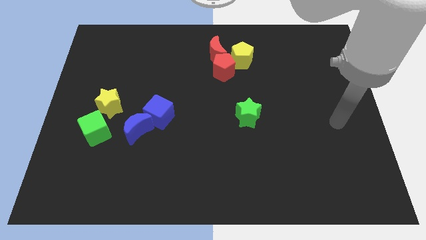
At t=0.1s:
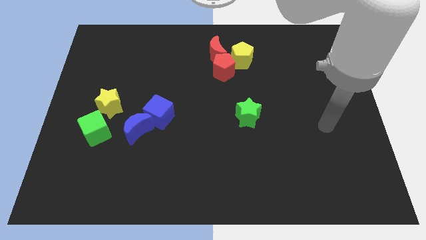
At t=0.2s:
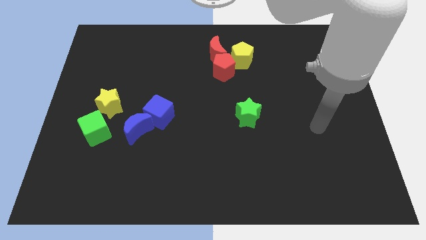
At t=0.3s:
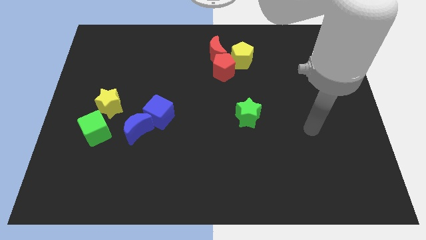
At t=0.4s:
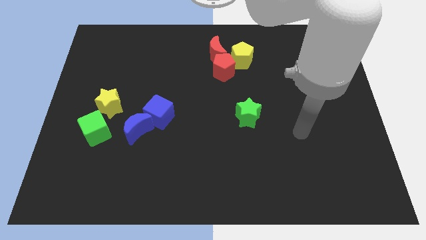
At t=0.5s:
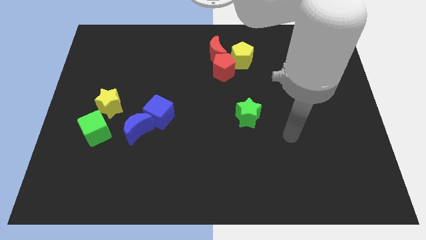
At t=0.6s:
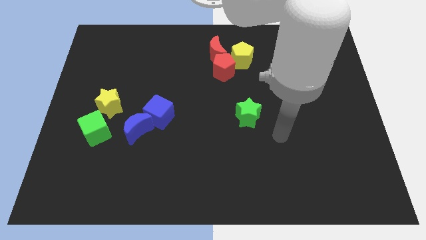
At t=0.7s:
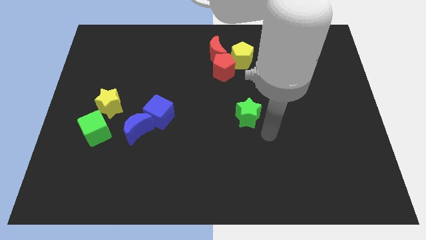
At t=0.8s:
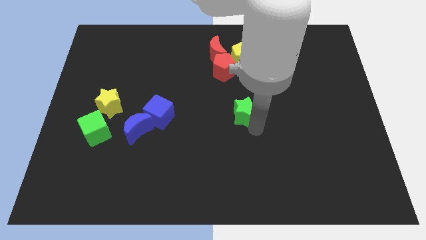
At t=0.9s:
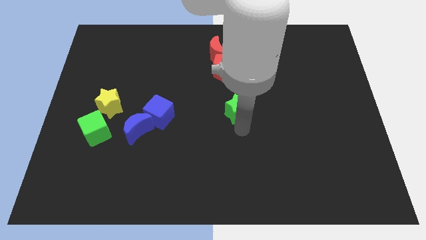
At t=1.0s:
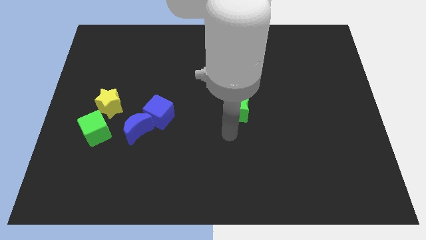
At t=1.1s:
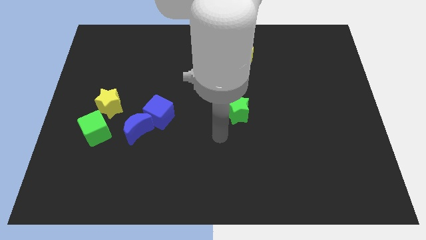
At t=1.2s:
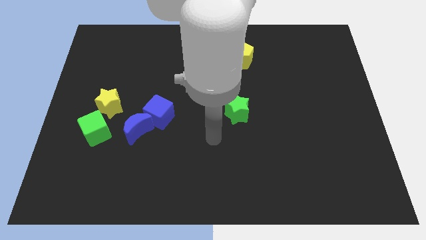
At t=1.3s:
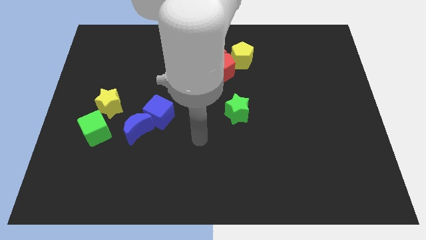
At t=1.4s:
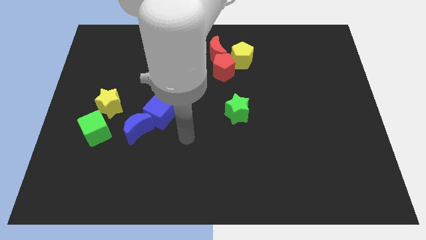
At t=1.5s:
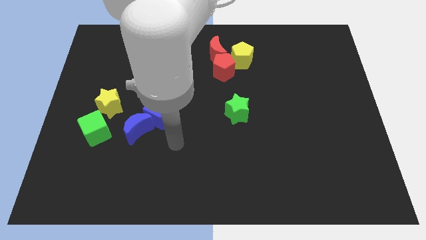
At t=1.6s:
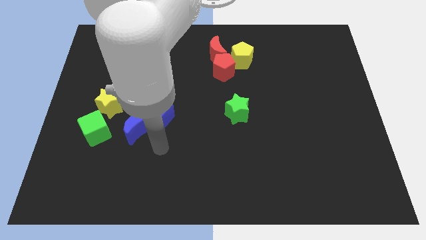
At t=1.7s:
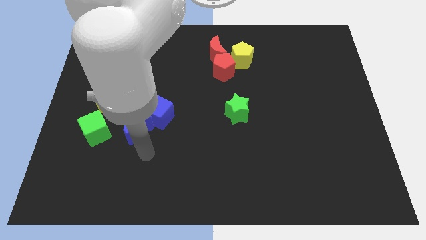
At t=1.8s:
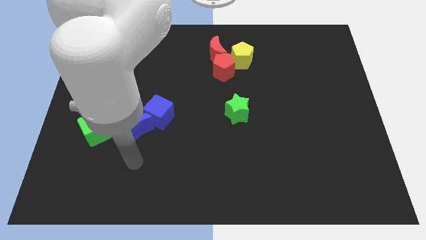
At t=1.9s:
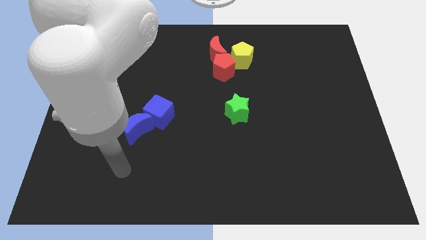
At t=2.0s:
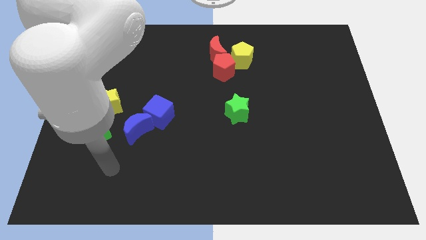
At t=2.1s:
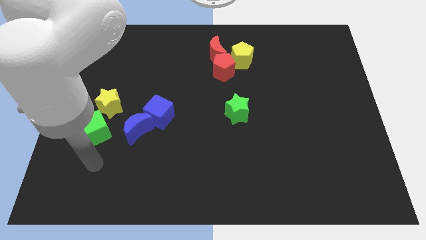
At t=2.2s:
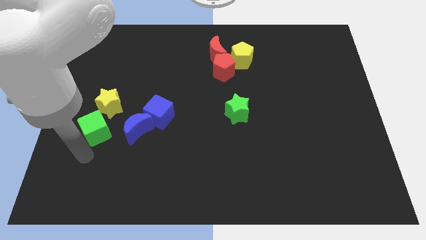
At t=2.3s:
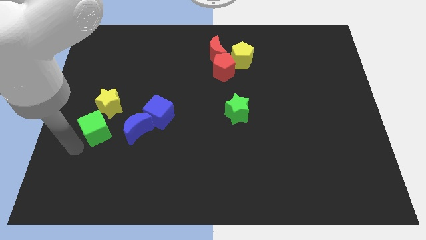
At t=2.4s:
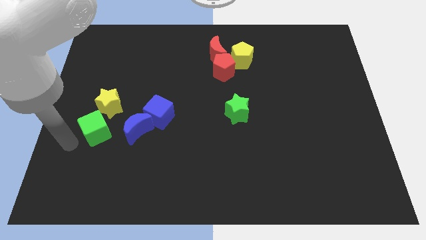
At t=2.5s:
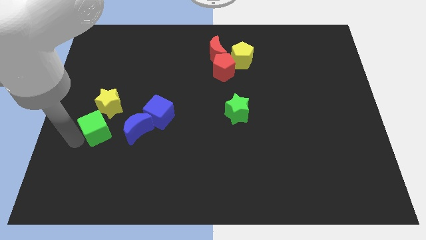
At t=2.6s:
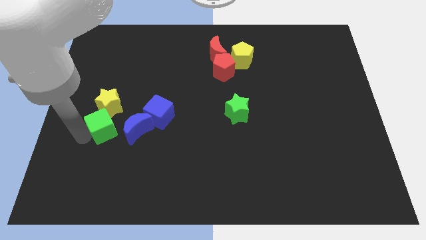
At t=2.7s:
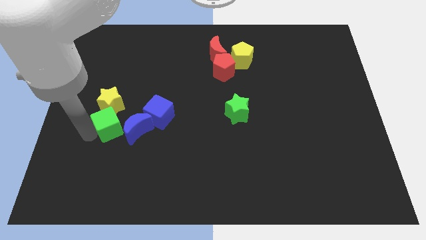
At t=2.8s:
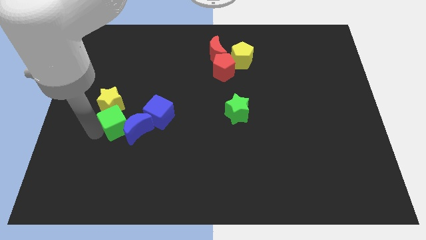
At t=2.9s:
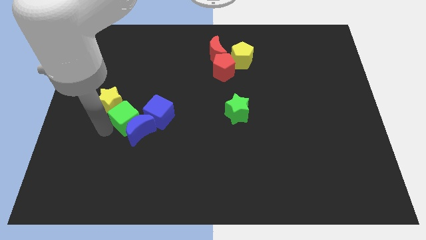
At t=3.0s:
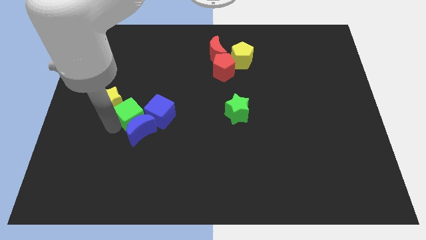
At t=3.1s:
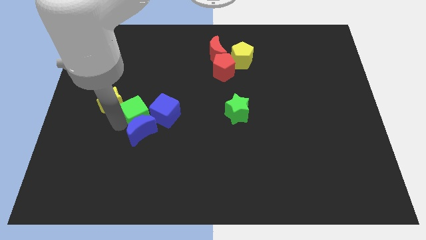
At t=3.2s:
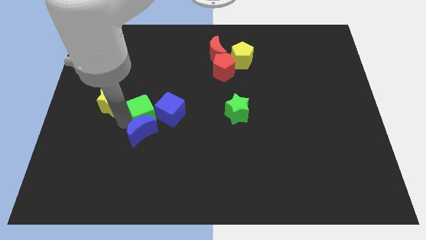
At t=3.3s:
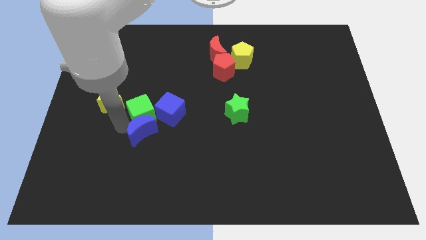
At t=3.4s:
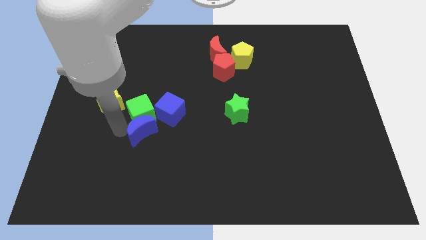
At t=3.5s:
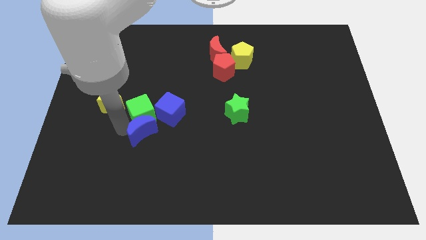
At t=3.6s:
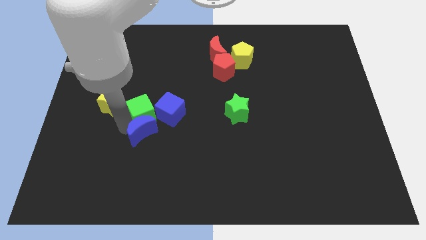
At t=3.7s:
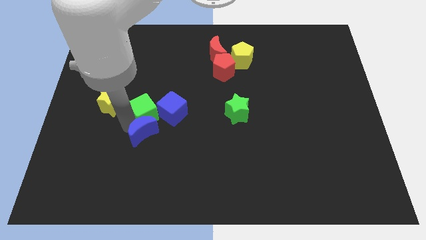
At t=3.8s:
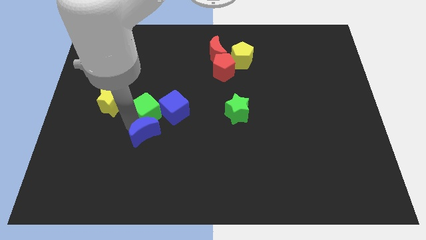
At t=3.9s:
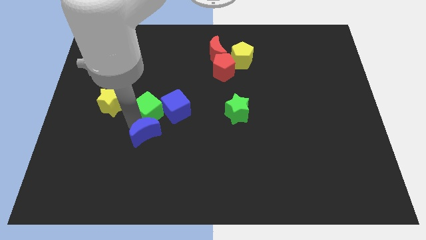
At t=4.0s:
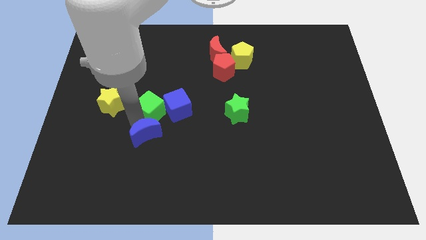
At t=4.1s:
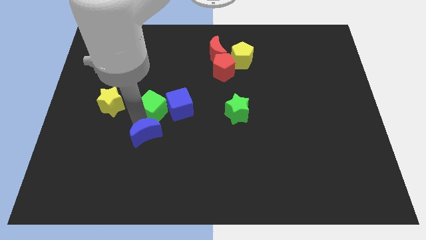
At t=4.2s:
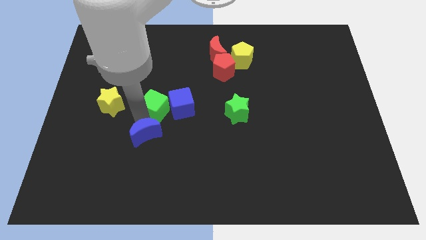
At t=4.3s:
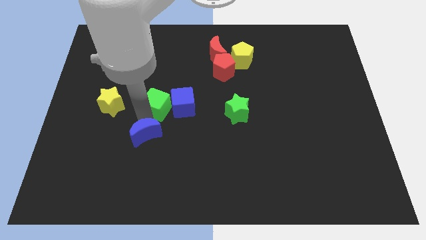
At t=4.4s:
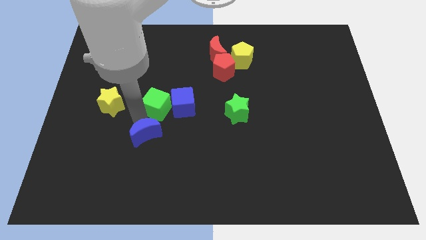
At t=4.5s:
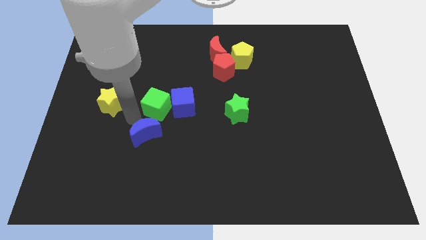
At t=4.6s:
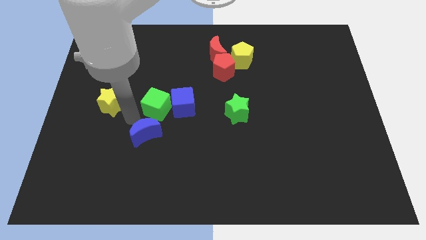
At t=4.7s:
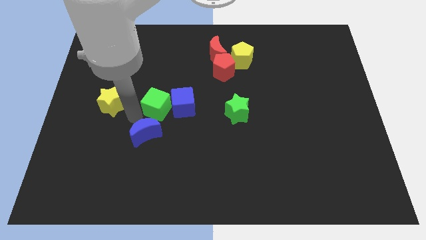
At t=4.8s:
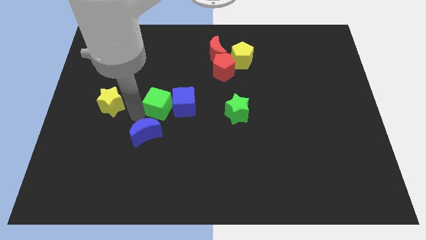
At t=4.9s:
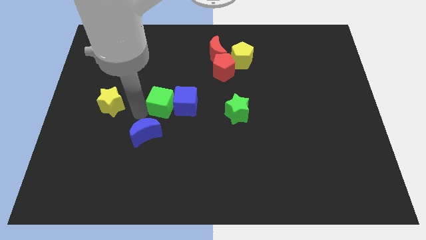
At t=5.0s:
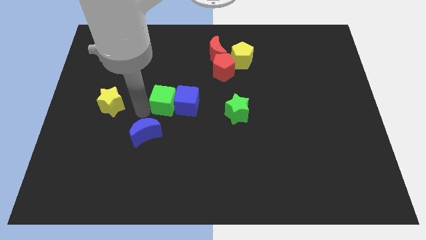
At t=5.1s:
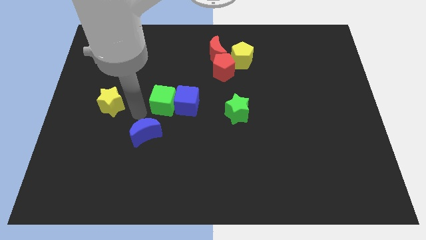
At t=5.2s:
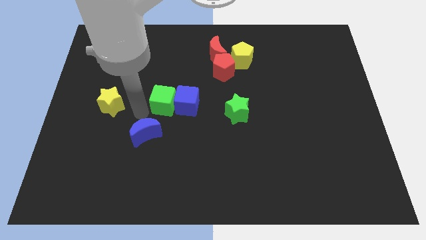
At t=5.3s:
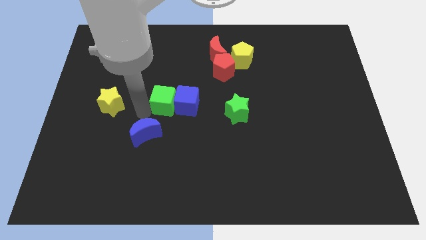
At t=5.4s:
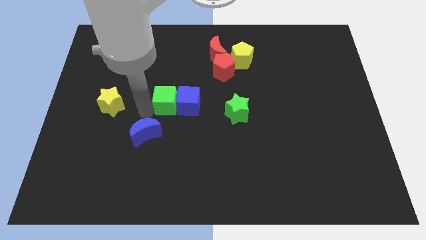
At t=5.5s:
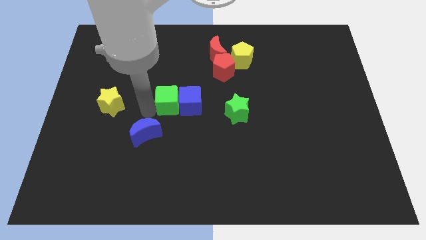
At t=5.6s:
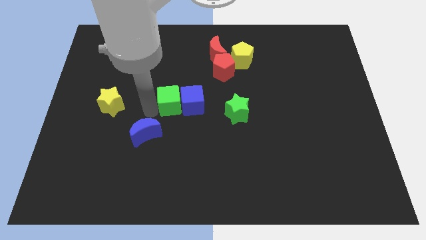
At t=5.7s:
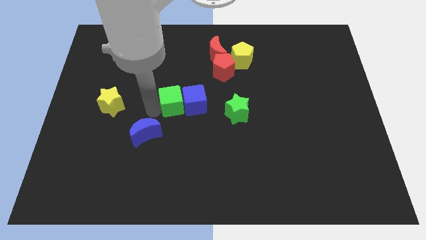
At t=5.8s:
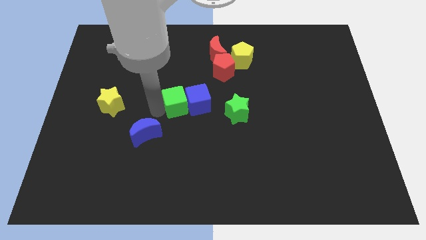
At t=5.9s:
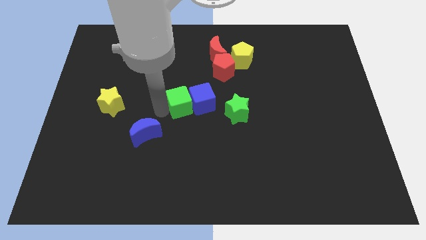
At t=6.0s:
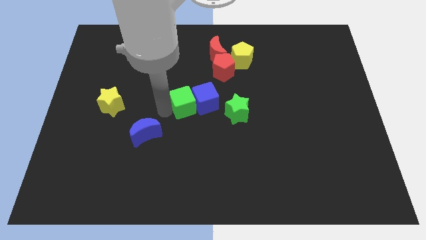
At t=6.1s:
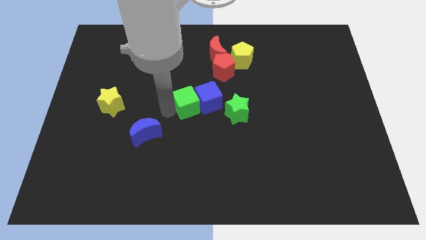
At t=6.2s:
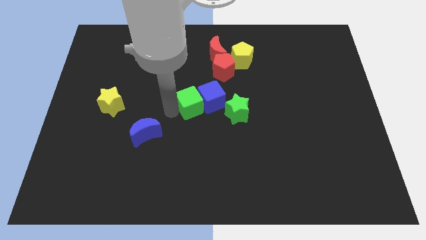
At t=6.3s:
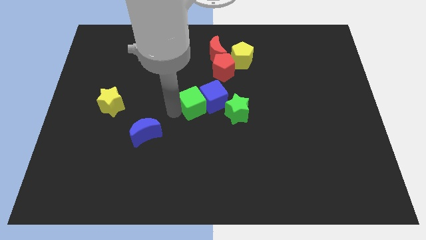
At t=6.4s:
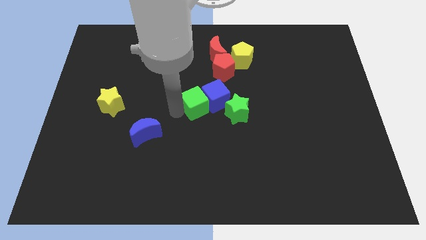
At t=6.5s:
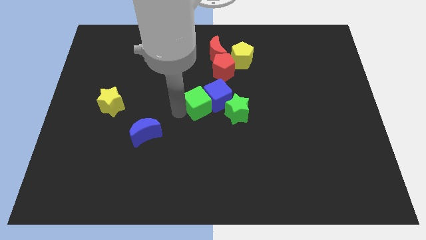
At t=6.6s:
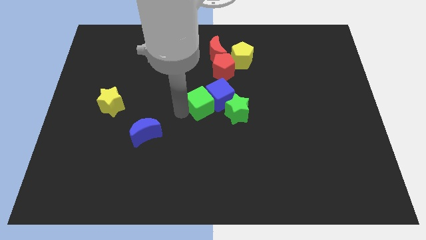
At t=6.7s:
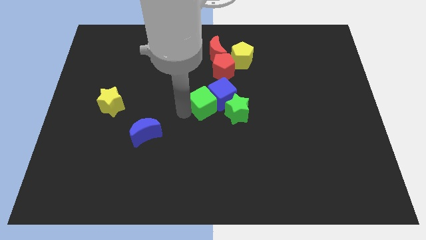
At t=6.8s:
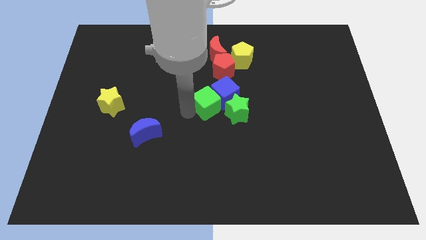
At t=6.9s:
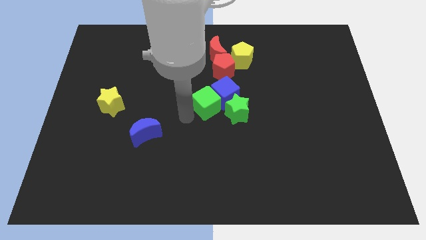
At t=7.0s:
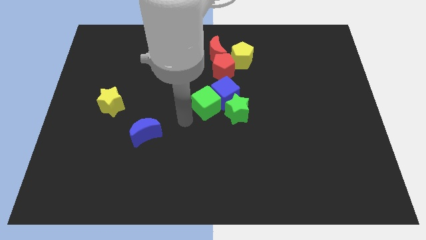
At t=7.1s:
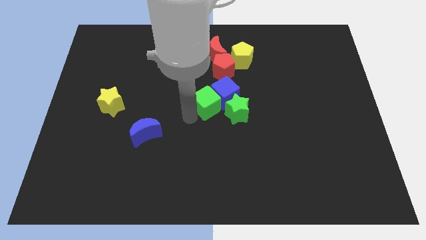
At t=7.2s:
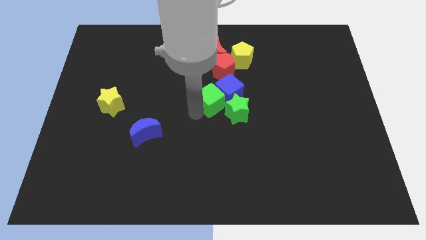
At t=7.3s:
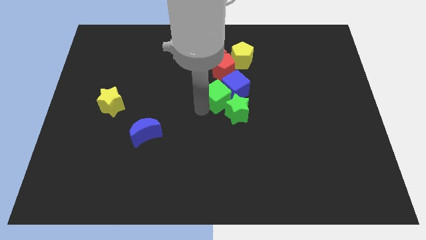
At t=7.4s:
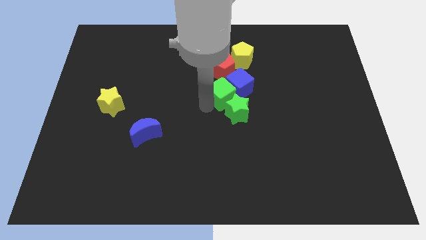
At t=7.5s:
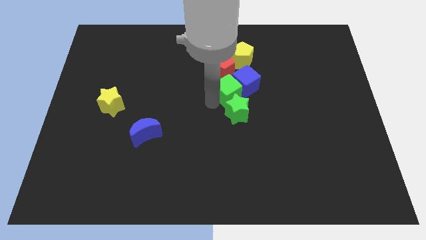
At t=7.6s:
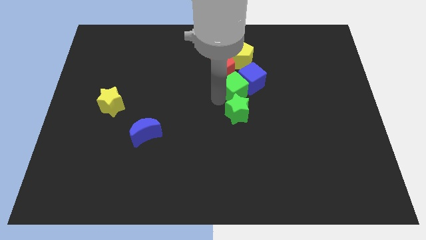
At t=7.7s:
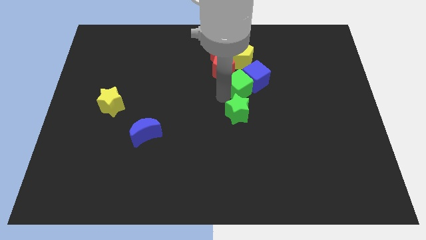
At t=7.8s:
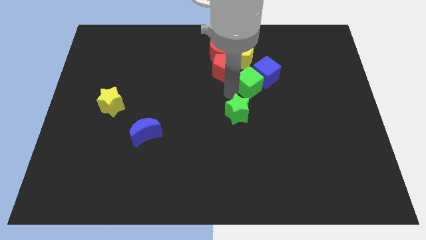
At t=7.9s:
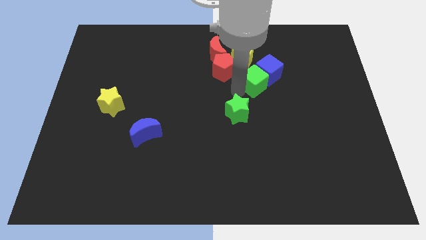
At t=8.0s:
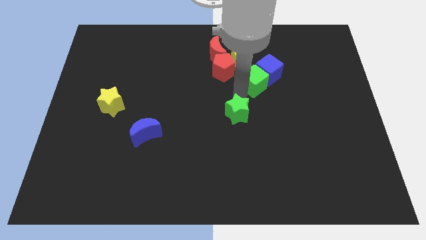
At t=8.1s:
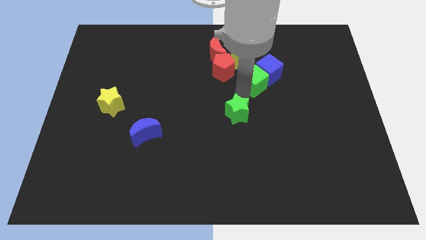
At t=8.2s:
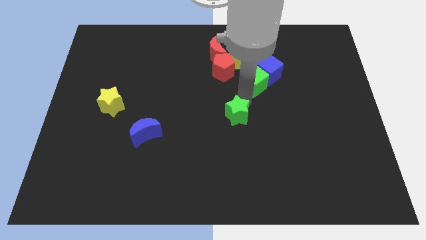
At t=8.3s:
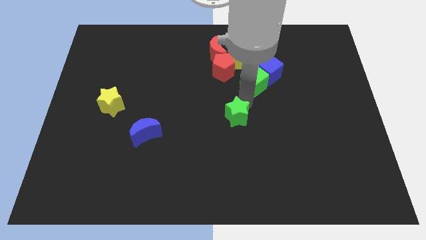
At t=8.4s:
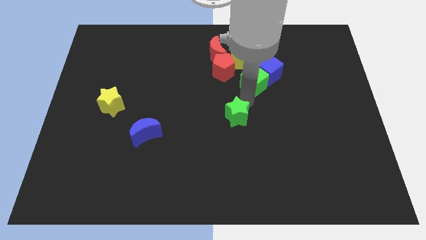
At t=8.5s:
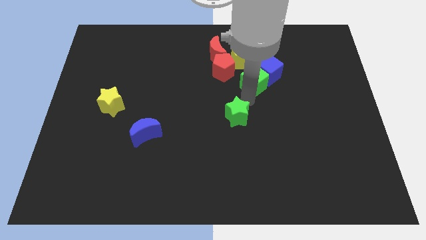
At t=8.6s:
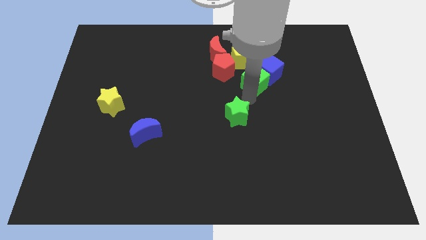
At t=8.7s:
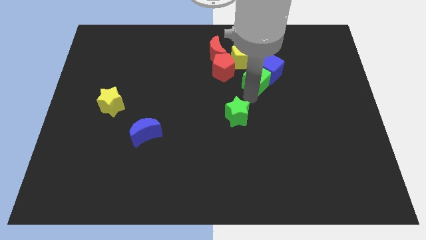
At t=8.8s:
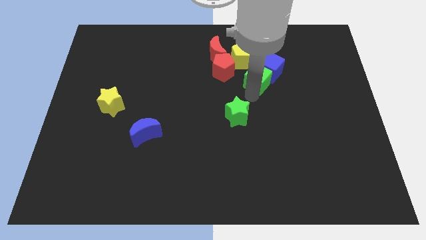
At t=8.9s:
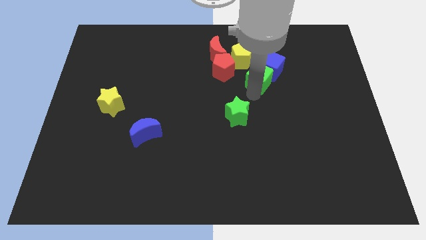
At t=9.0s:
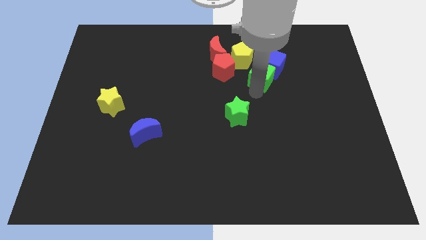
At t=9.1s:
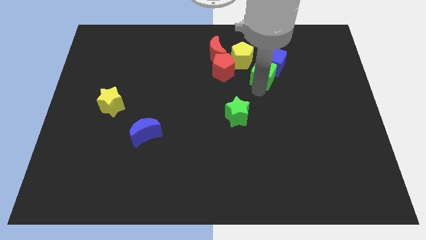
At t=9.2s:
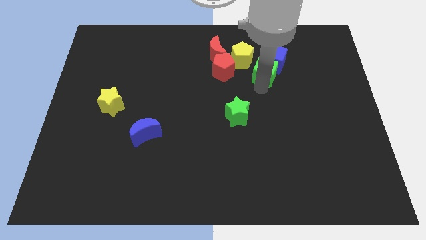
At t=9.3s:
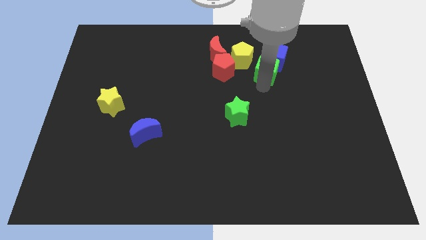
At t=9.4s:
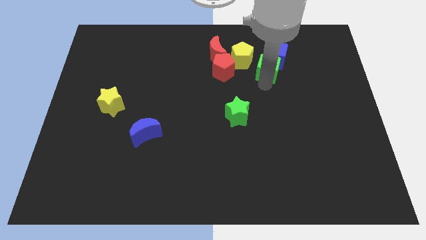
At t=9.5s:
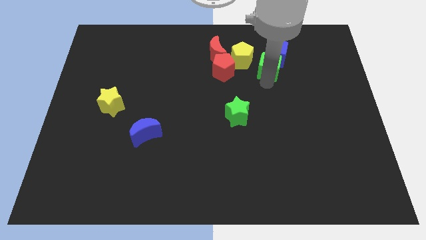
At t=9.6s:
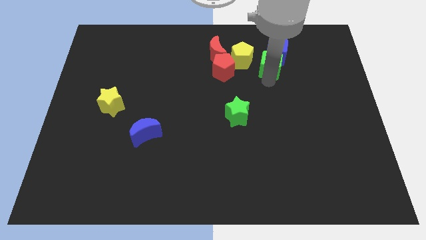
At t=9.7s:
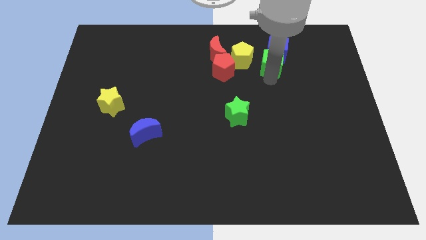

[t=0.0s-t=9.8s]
move the green cube to the right side of the red moon
